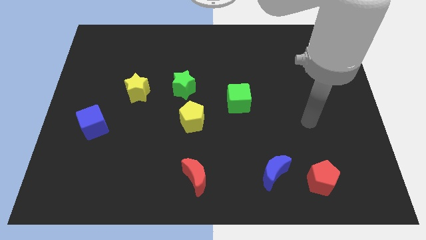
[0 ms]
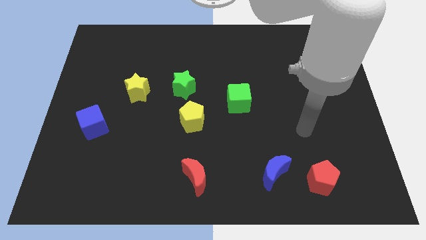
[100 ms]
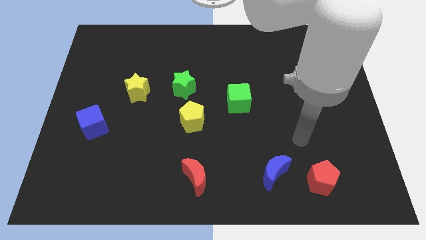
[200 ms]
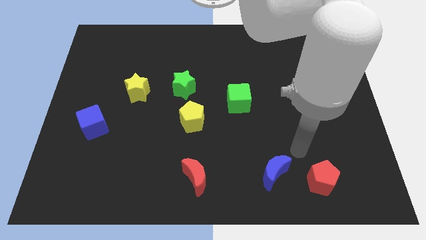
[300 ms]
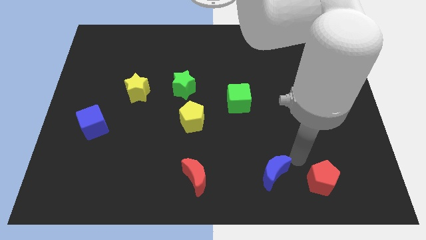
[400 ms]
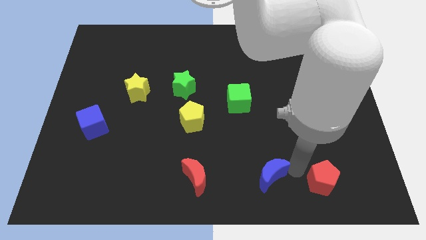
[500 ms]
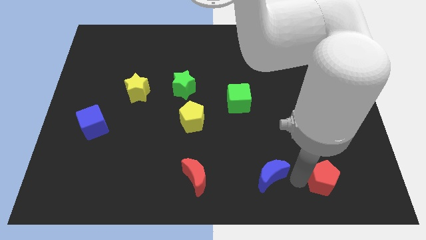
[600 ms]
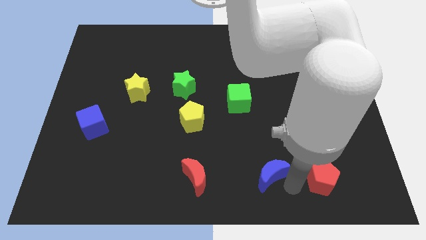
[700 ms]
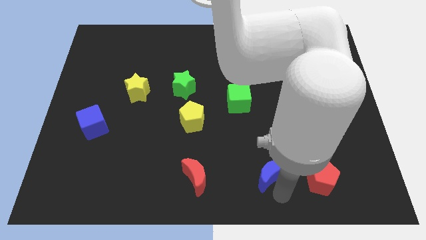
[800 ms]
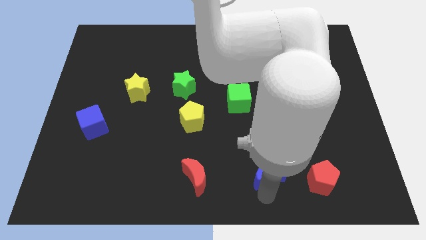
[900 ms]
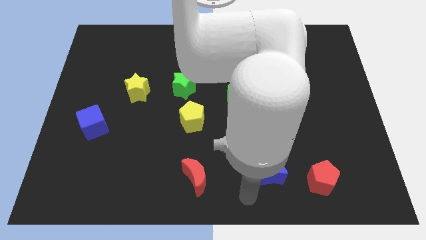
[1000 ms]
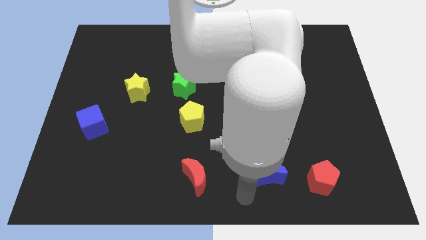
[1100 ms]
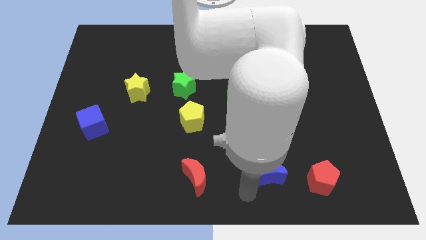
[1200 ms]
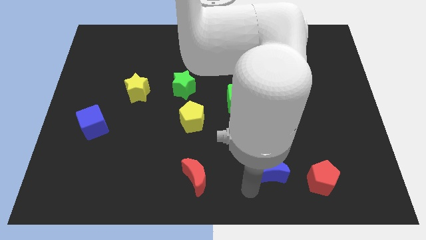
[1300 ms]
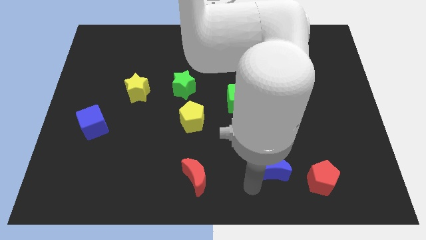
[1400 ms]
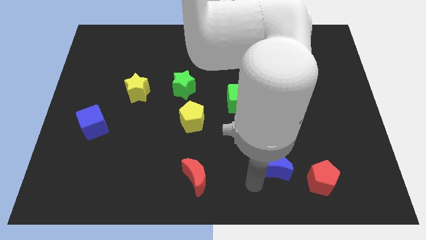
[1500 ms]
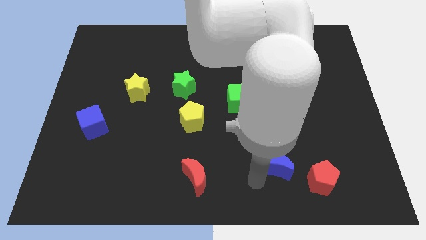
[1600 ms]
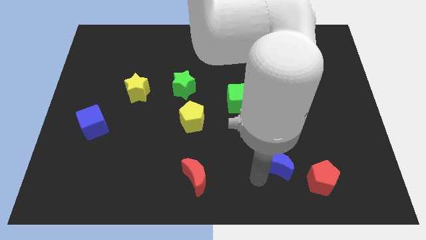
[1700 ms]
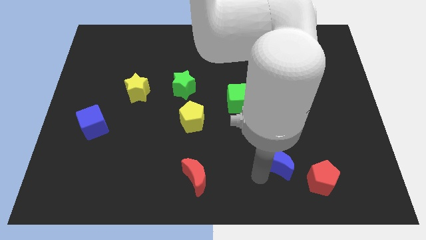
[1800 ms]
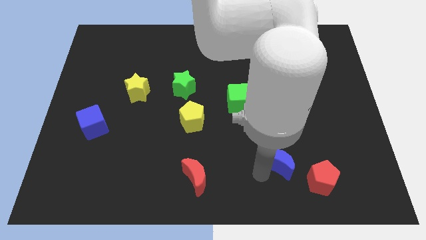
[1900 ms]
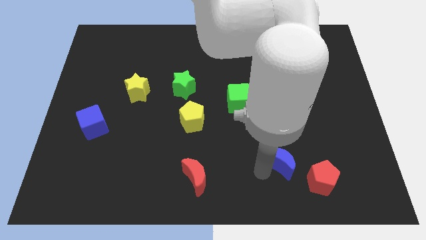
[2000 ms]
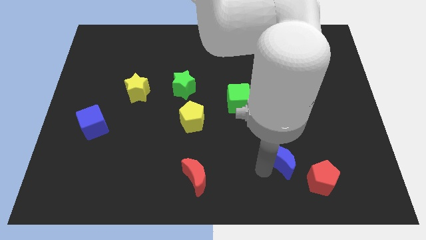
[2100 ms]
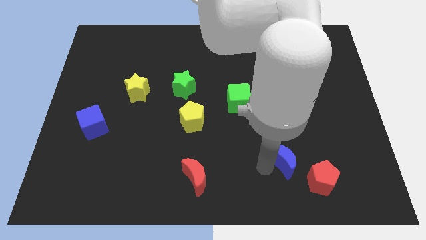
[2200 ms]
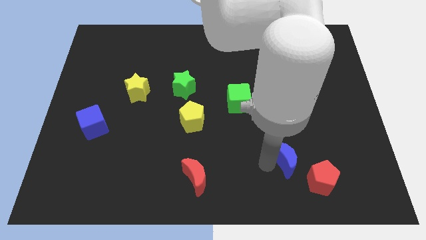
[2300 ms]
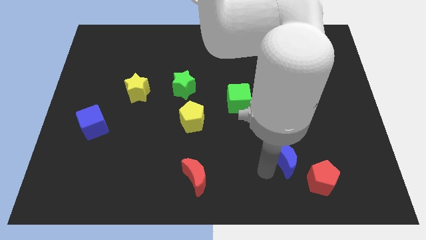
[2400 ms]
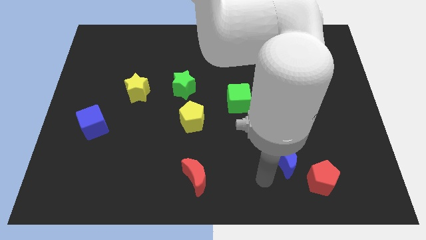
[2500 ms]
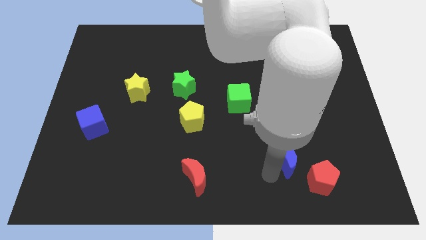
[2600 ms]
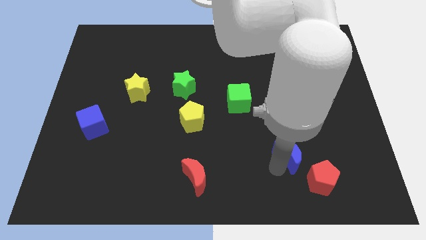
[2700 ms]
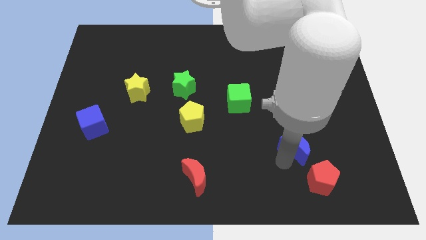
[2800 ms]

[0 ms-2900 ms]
slightly slide the blue moon diagonally up and to the right

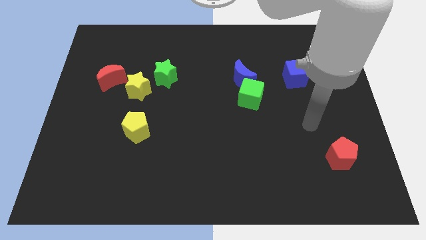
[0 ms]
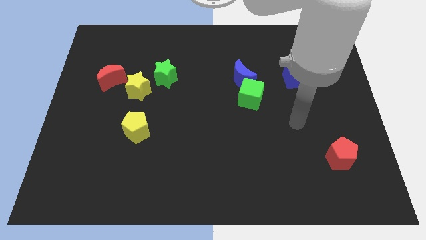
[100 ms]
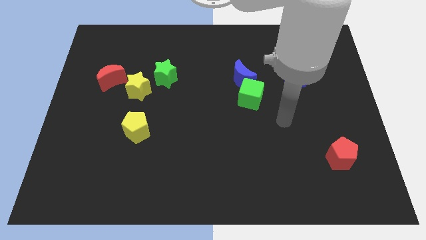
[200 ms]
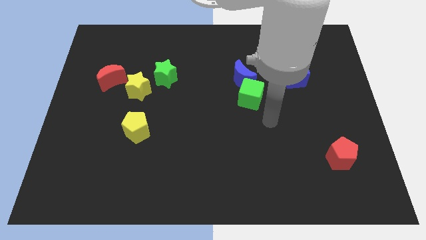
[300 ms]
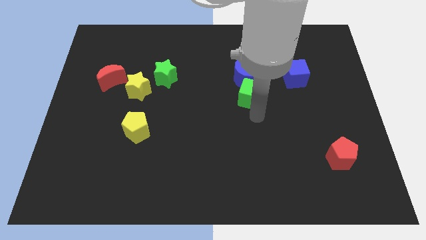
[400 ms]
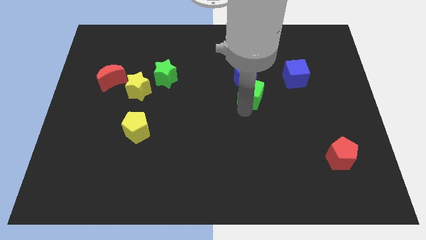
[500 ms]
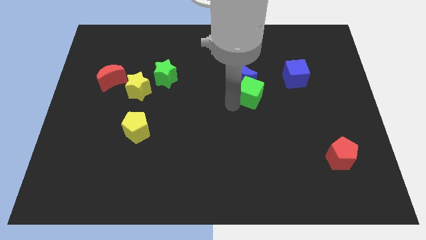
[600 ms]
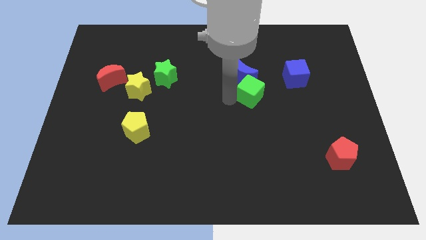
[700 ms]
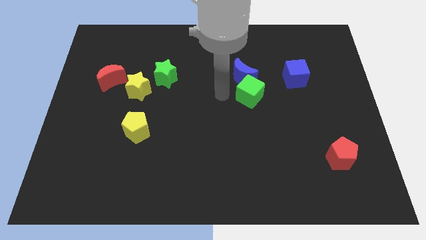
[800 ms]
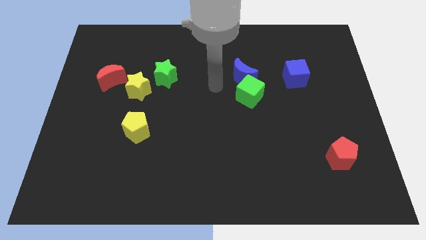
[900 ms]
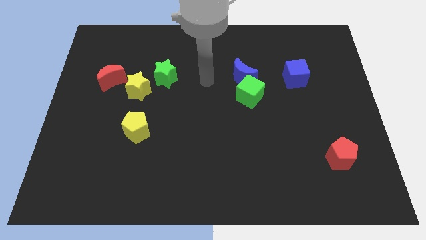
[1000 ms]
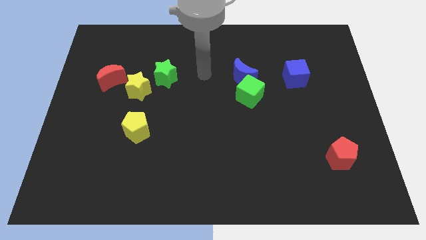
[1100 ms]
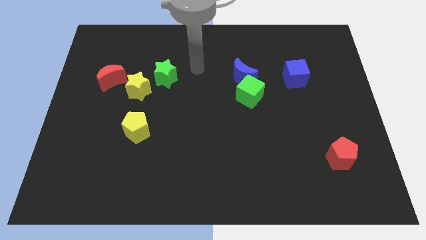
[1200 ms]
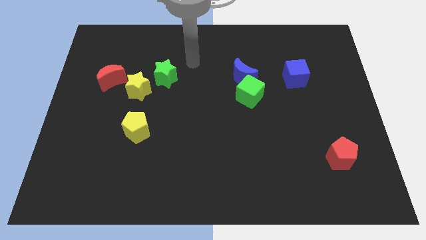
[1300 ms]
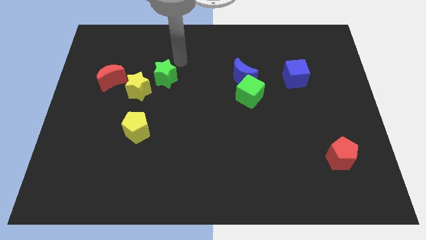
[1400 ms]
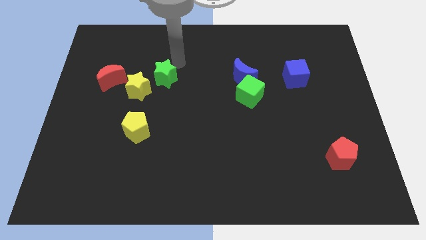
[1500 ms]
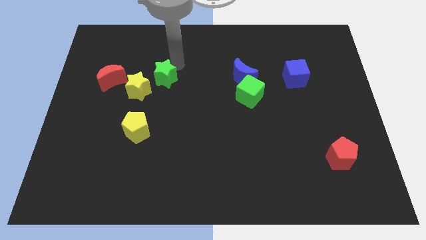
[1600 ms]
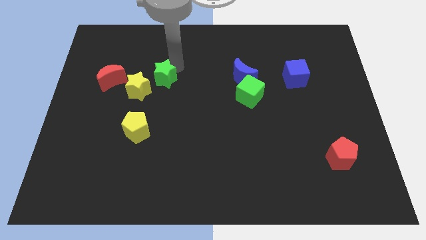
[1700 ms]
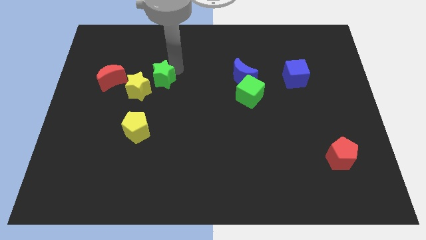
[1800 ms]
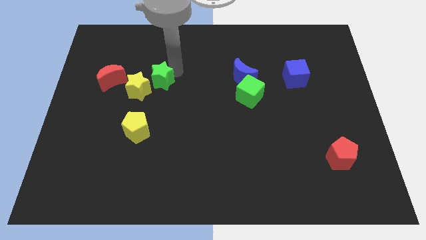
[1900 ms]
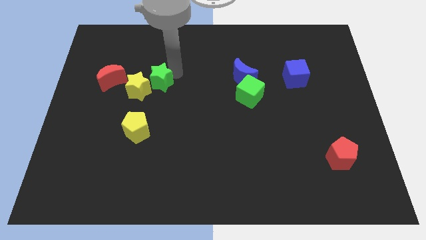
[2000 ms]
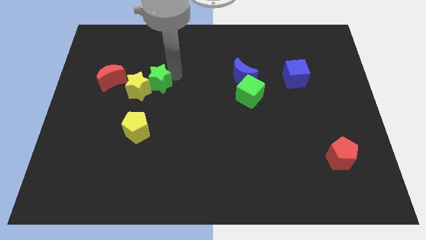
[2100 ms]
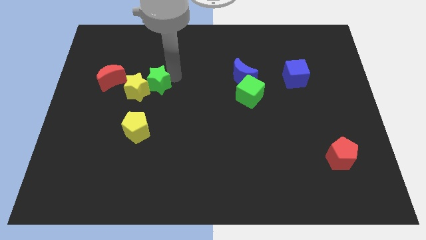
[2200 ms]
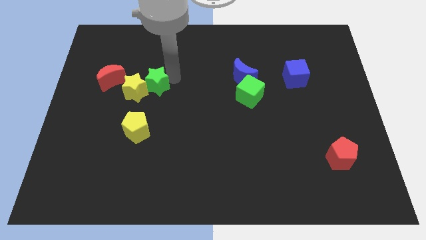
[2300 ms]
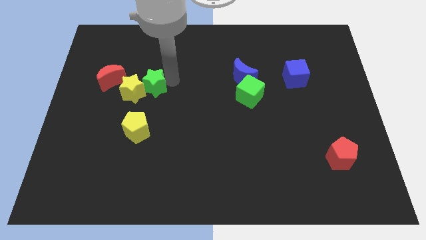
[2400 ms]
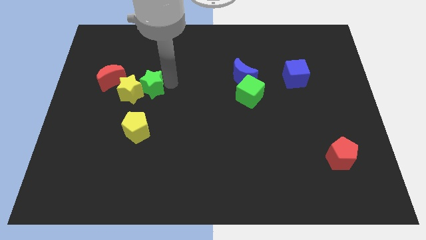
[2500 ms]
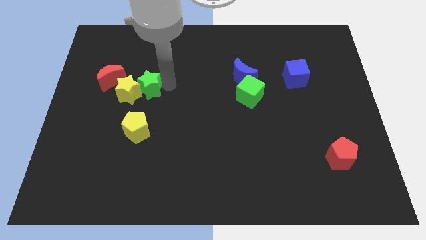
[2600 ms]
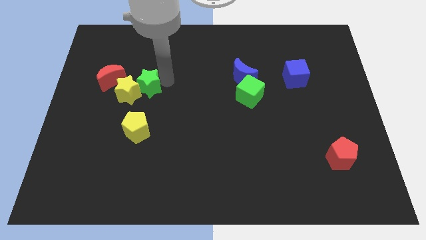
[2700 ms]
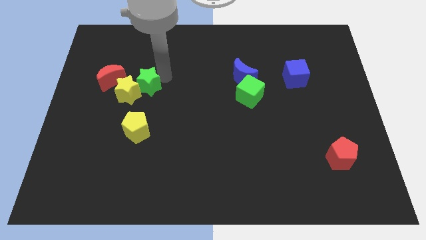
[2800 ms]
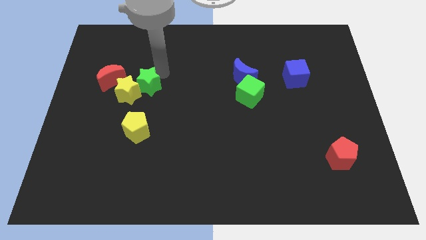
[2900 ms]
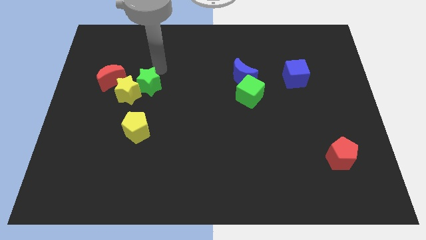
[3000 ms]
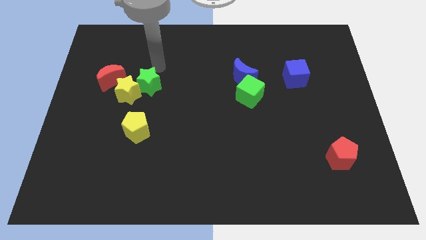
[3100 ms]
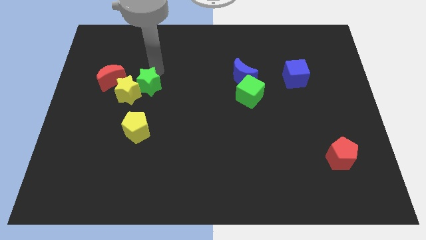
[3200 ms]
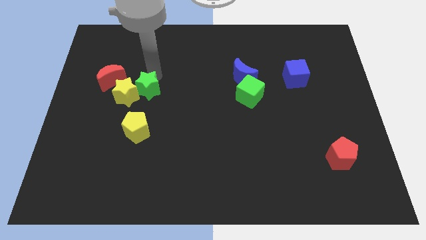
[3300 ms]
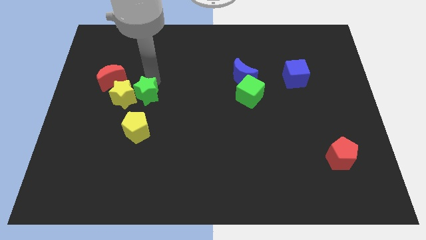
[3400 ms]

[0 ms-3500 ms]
slide the green star a little downwards and to the left diagonally

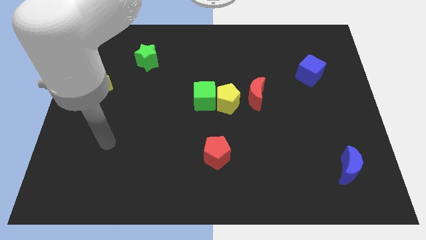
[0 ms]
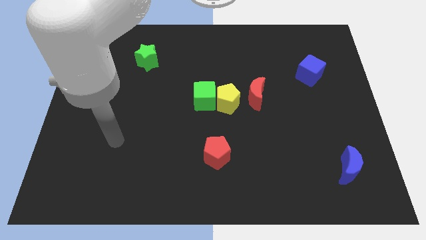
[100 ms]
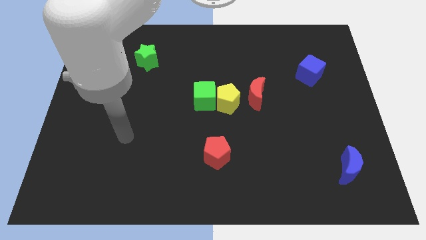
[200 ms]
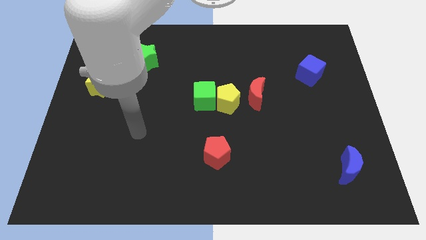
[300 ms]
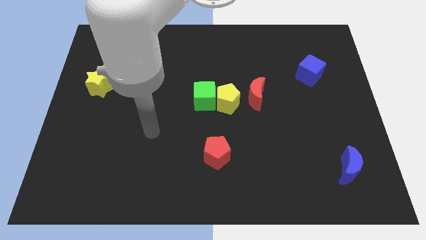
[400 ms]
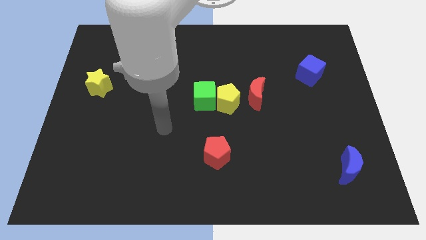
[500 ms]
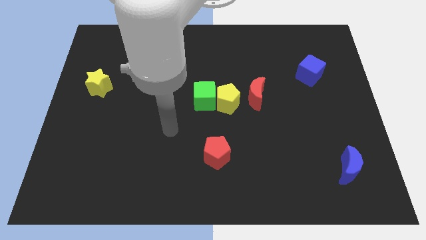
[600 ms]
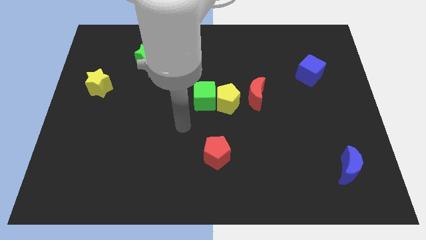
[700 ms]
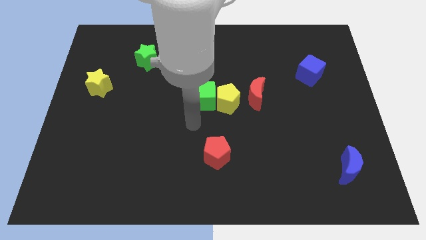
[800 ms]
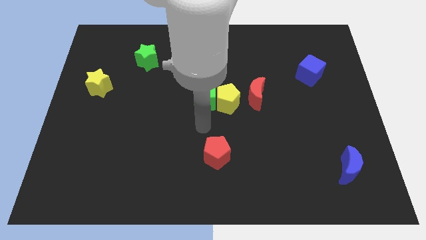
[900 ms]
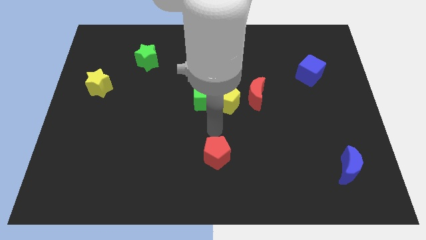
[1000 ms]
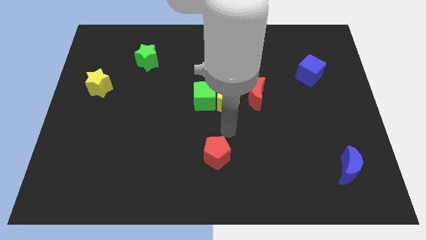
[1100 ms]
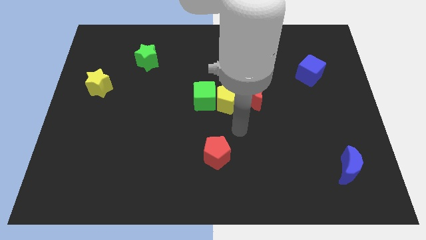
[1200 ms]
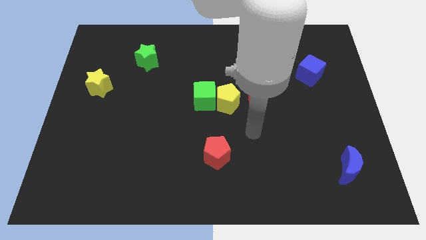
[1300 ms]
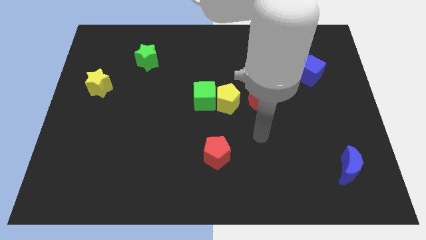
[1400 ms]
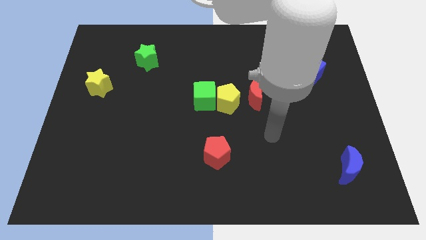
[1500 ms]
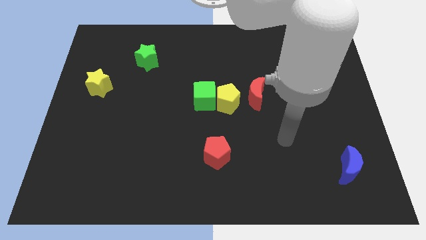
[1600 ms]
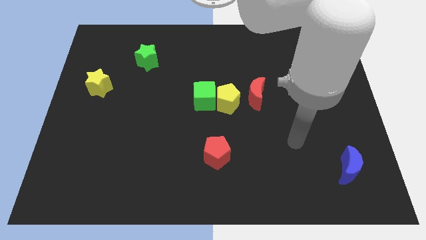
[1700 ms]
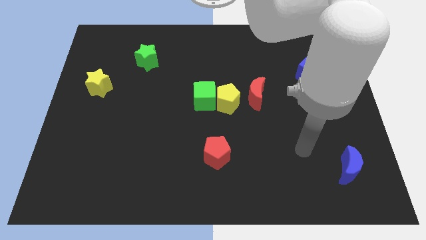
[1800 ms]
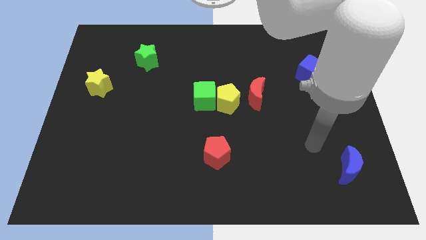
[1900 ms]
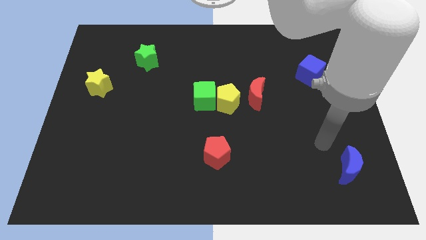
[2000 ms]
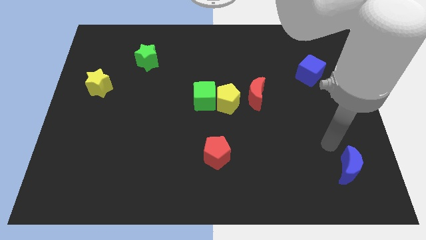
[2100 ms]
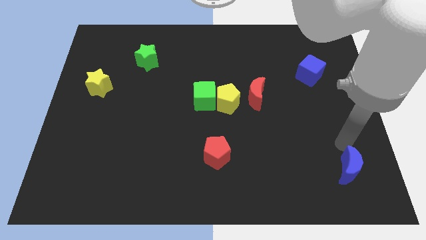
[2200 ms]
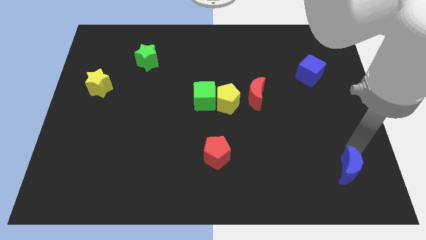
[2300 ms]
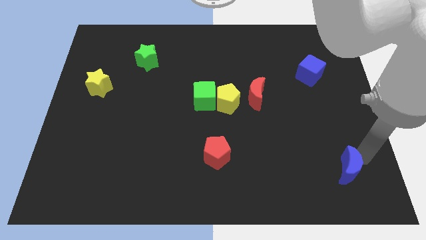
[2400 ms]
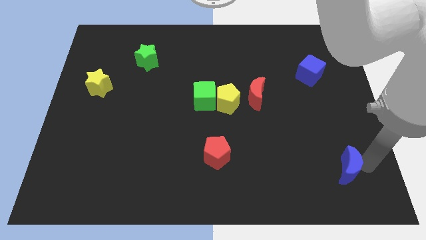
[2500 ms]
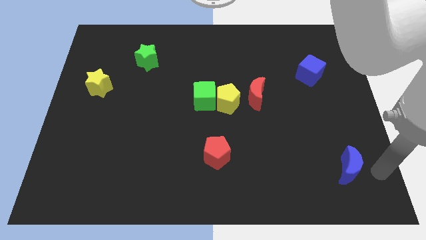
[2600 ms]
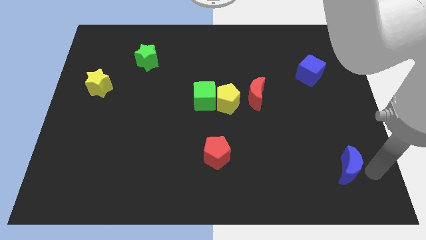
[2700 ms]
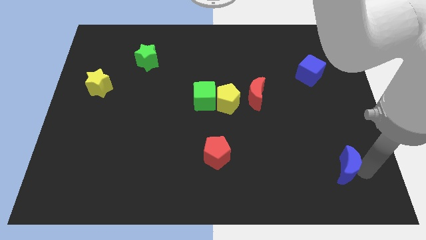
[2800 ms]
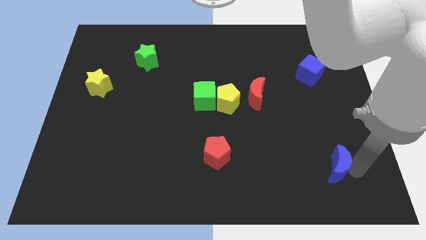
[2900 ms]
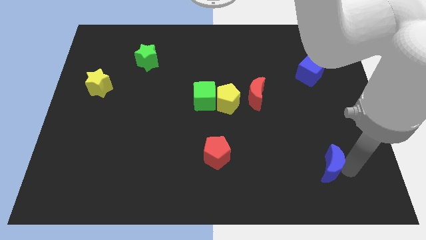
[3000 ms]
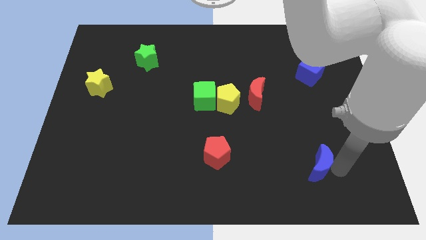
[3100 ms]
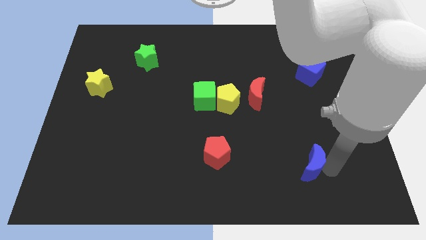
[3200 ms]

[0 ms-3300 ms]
move the blue moon to the left a little
